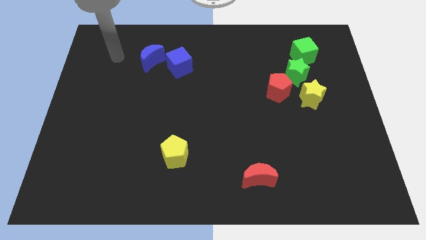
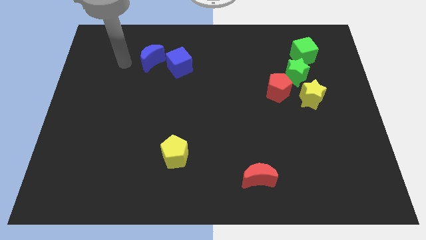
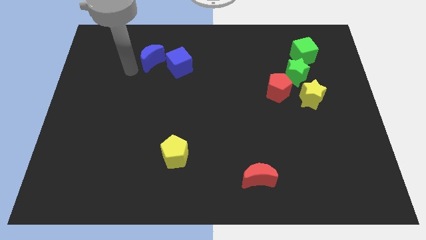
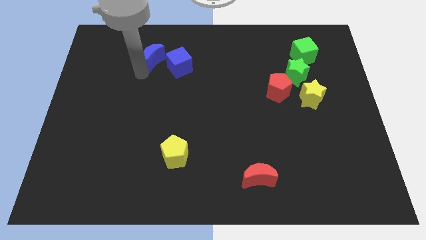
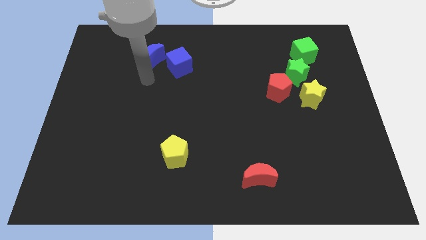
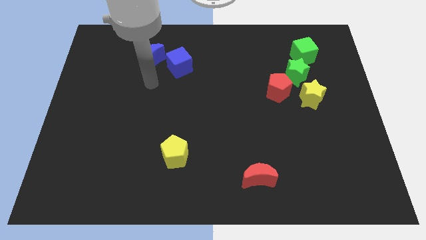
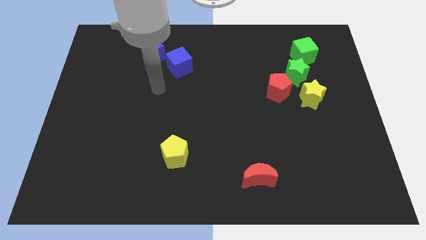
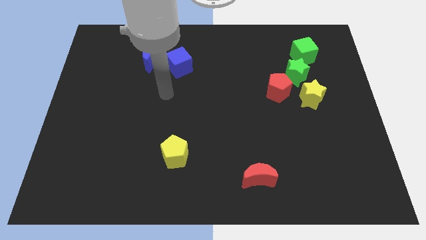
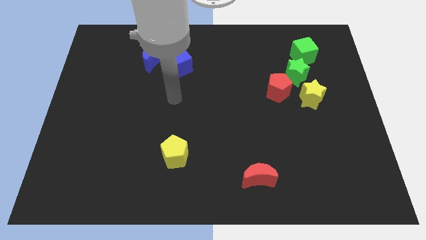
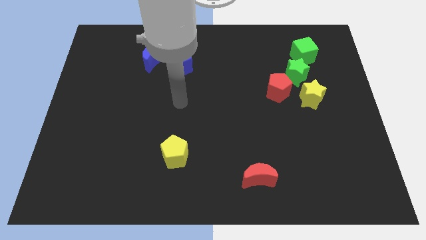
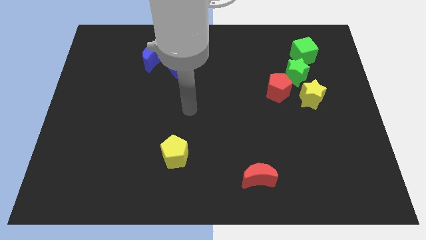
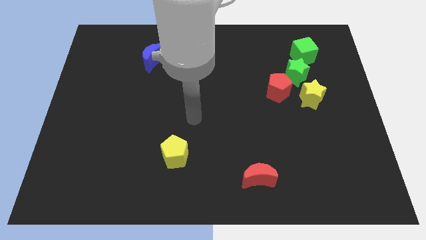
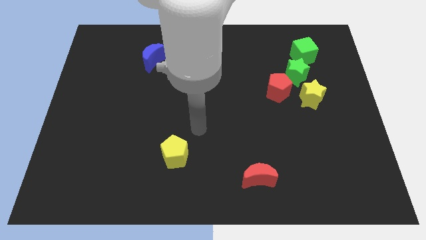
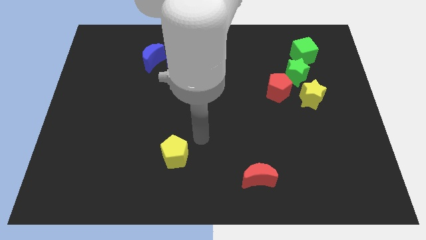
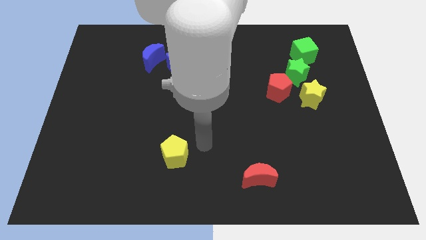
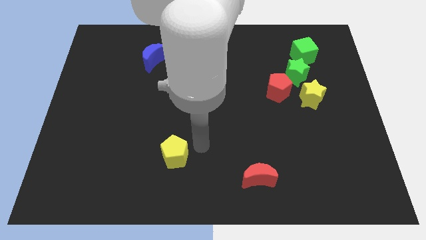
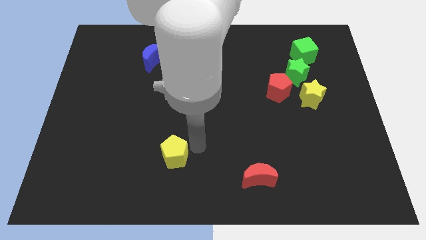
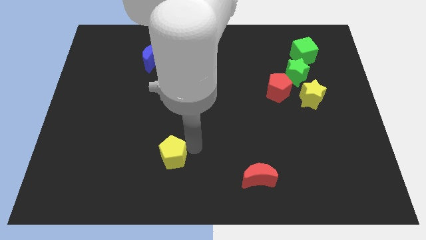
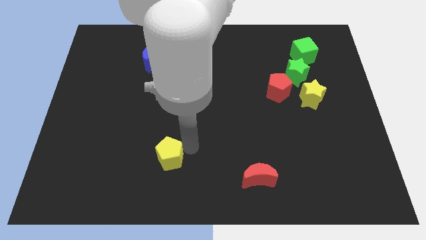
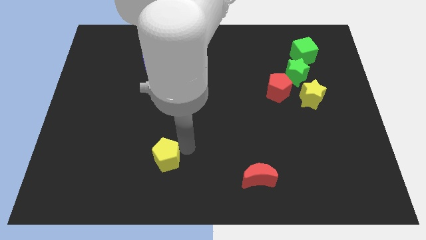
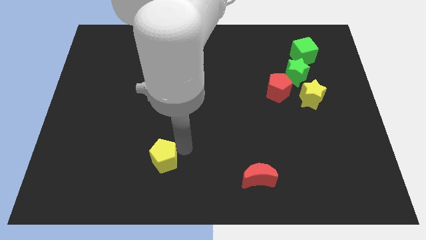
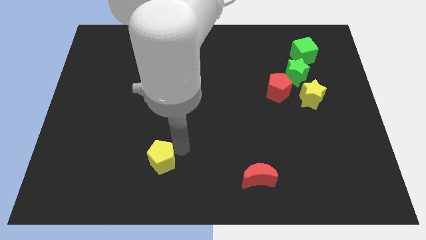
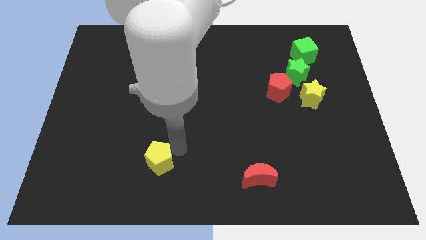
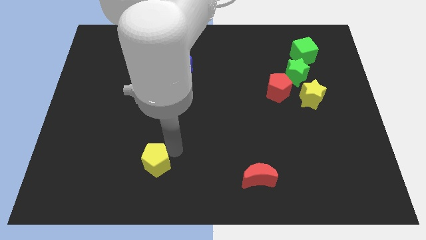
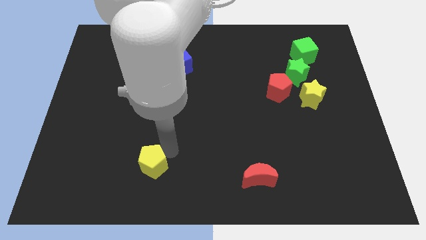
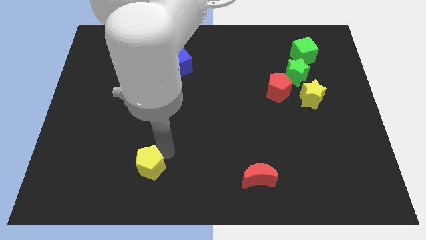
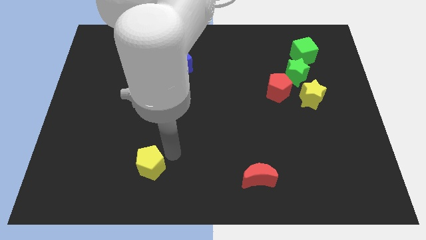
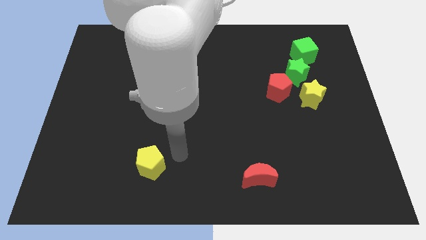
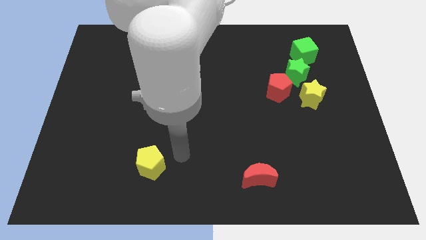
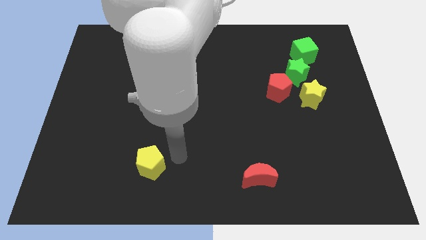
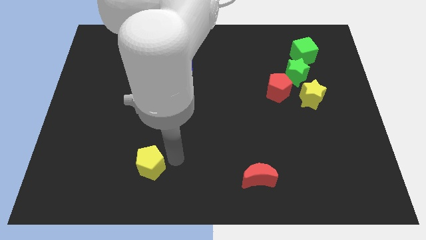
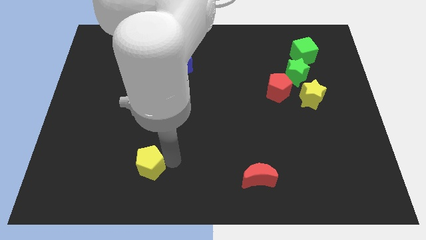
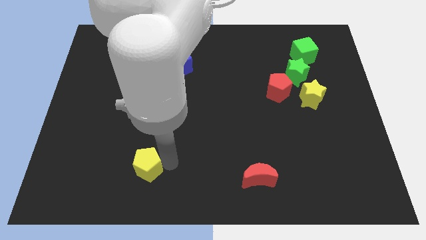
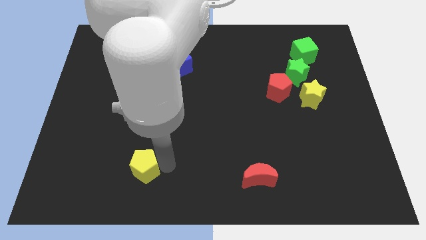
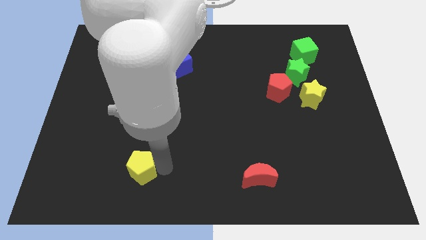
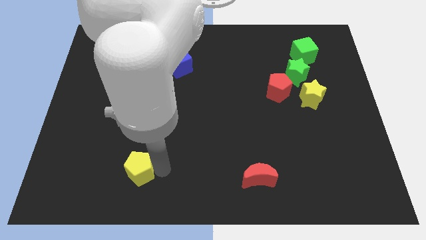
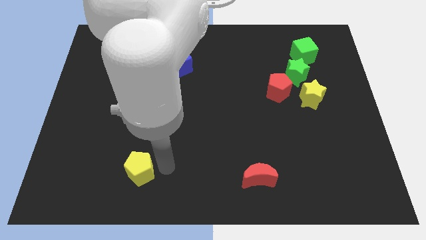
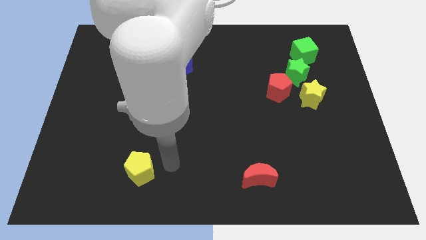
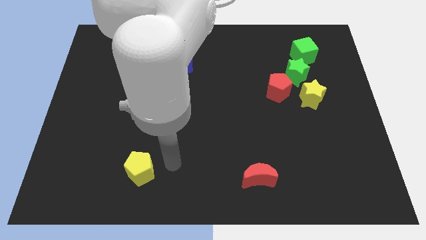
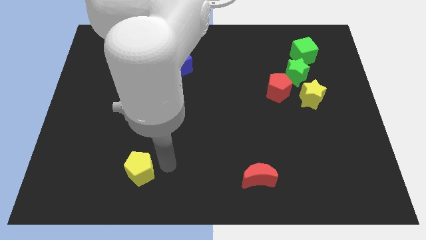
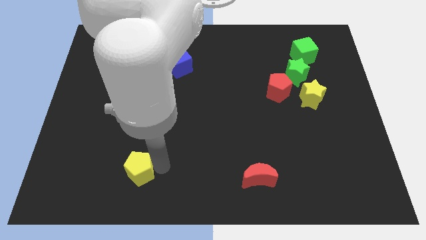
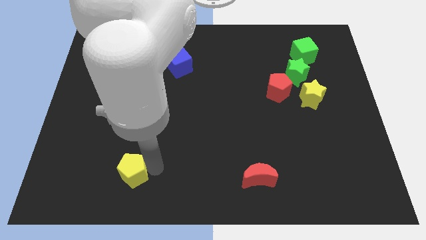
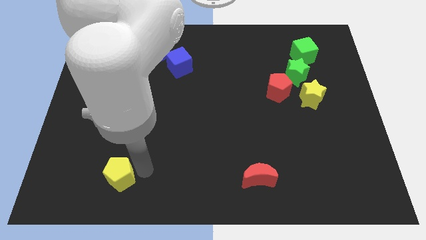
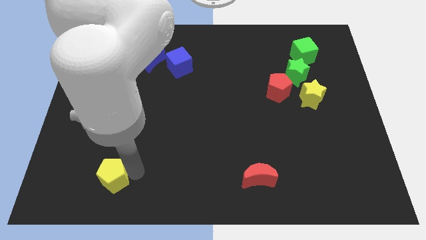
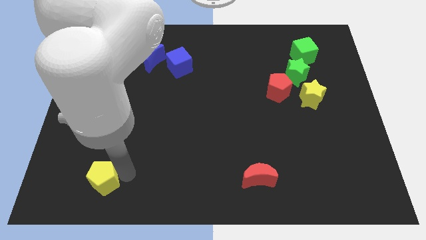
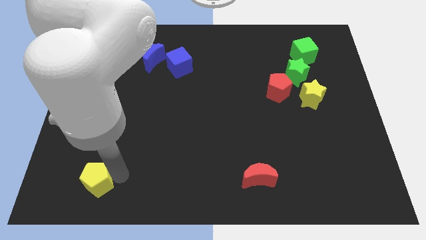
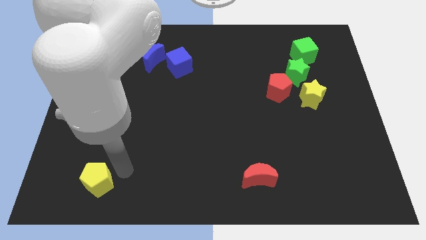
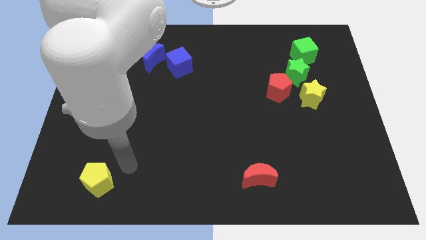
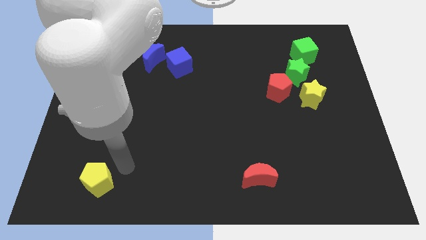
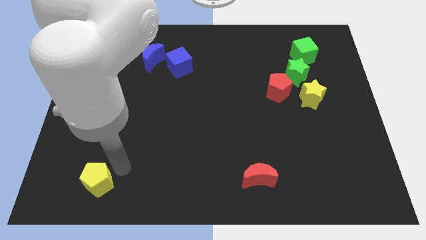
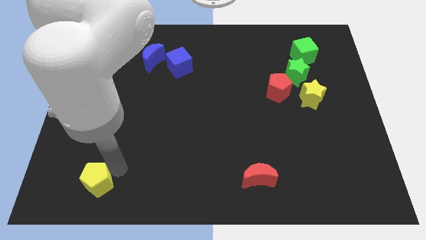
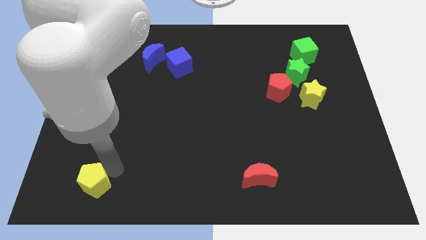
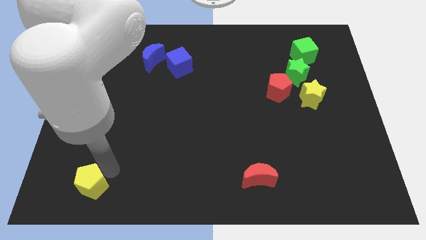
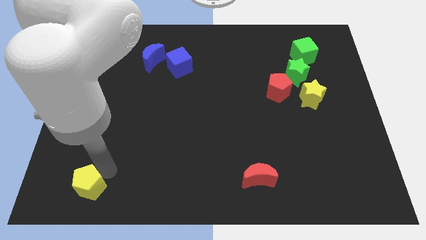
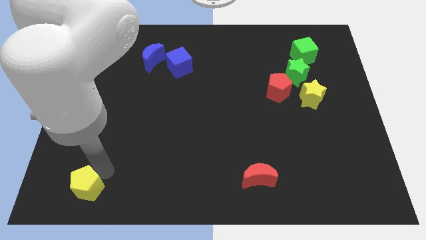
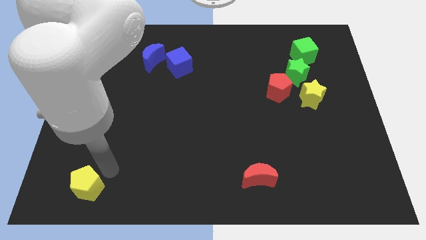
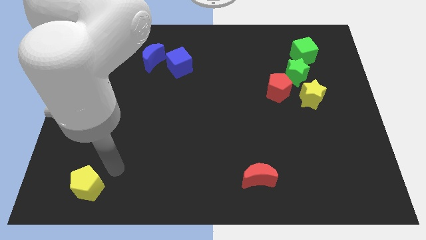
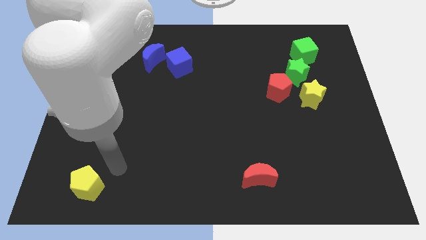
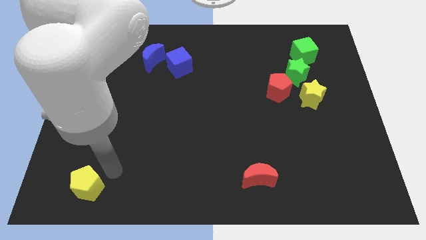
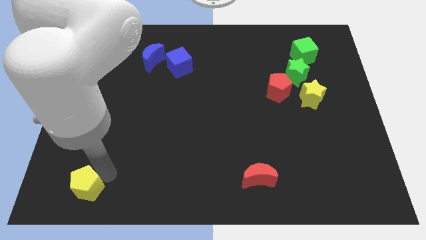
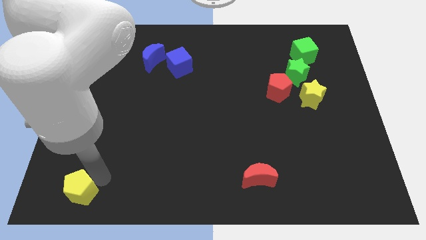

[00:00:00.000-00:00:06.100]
put the yellow pentagon to the bottom left of the board
